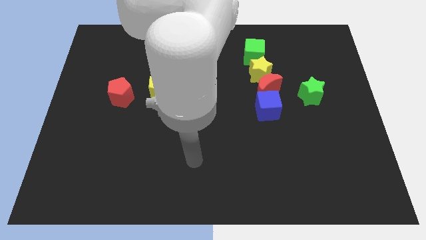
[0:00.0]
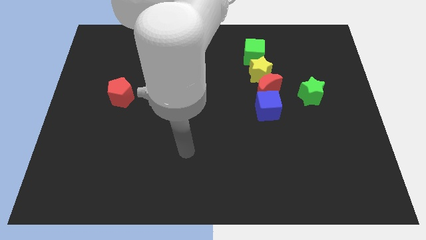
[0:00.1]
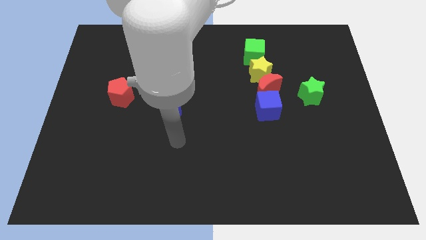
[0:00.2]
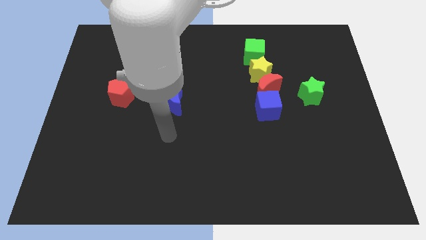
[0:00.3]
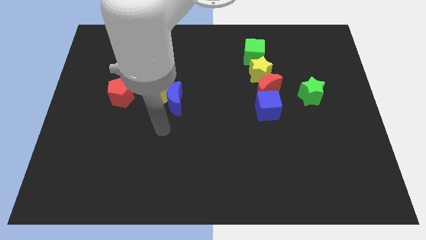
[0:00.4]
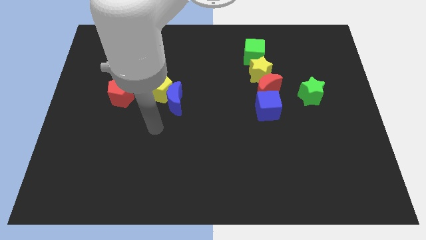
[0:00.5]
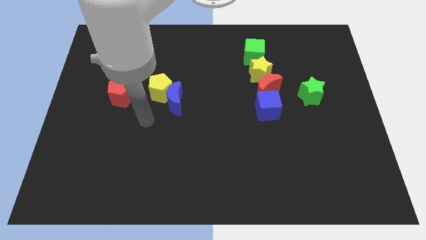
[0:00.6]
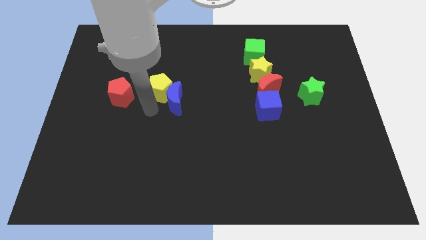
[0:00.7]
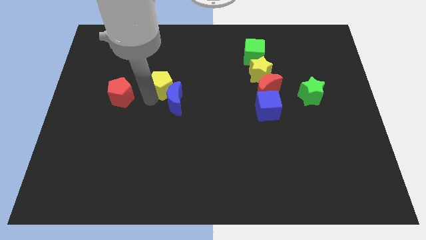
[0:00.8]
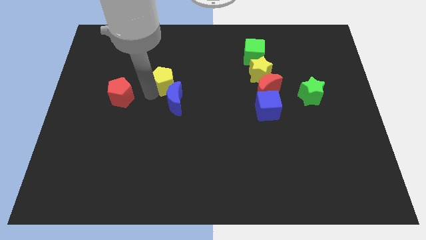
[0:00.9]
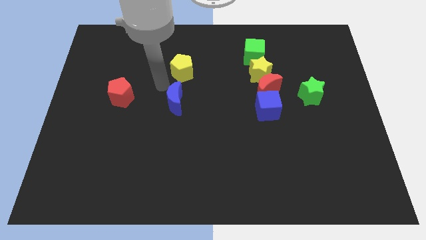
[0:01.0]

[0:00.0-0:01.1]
move the blue moon away from the yellow pentagon

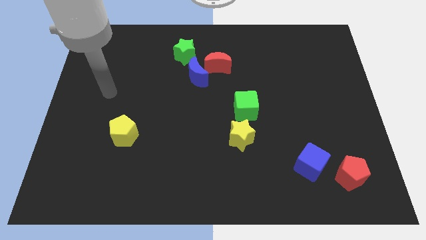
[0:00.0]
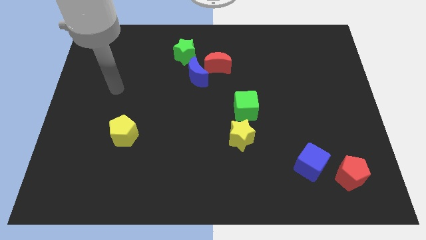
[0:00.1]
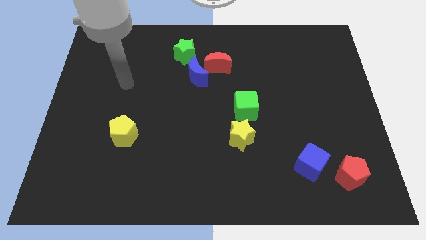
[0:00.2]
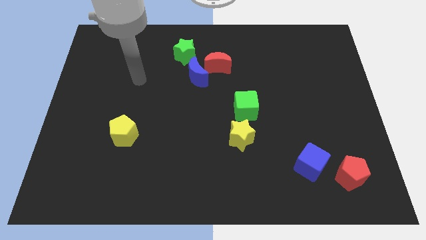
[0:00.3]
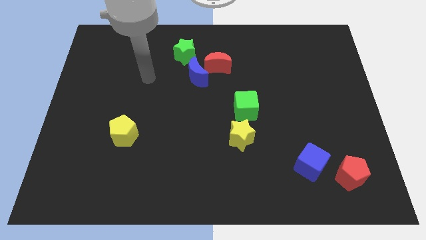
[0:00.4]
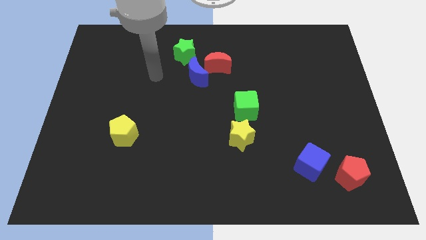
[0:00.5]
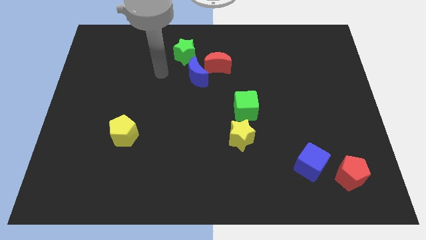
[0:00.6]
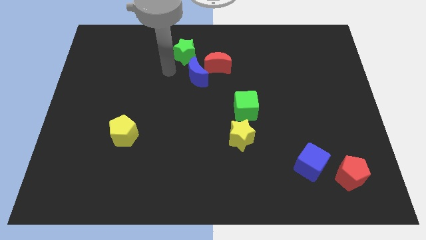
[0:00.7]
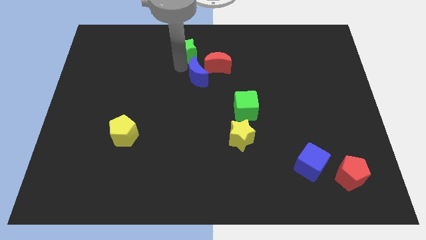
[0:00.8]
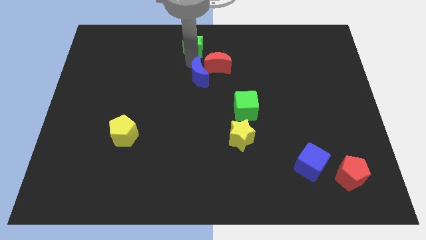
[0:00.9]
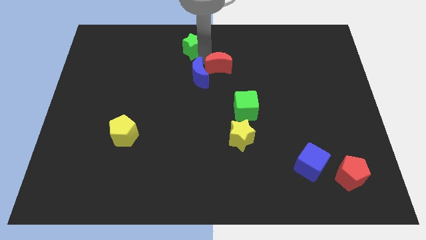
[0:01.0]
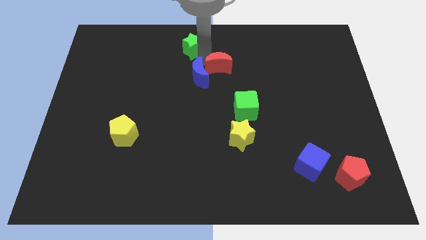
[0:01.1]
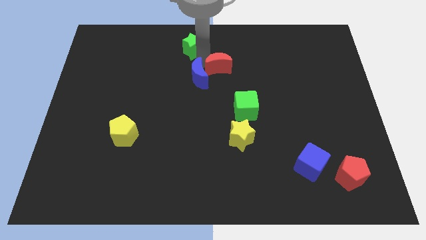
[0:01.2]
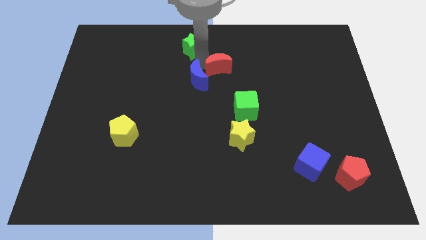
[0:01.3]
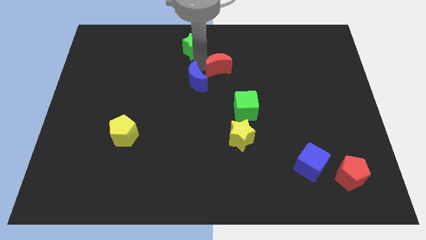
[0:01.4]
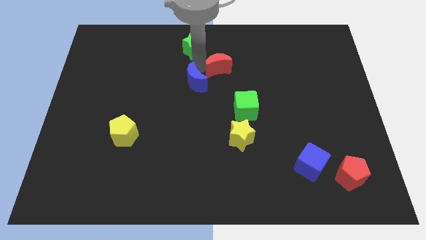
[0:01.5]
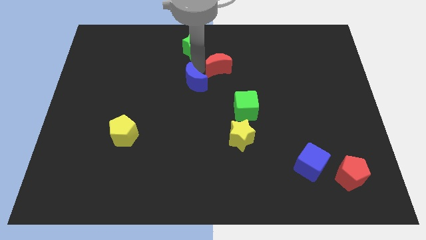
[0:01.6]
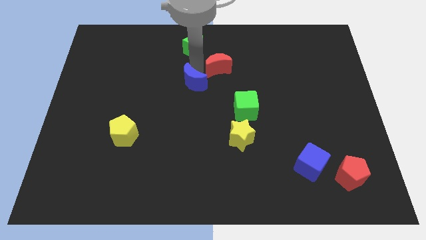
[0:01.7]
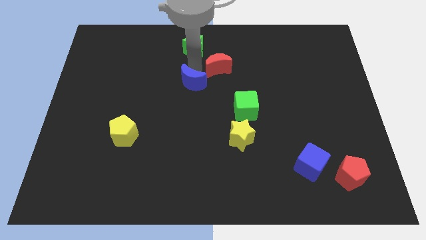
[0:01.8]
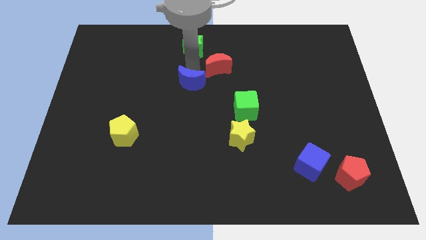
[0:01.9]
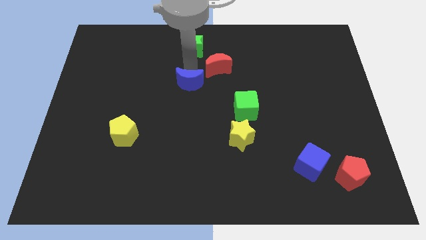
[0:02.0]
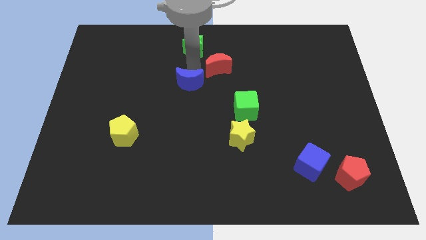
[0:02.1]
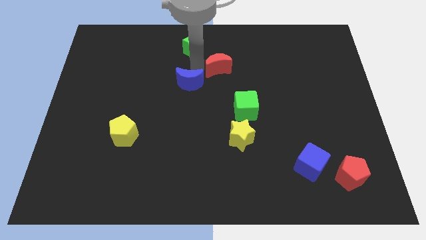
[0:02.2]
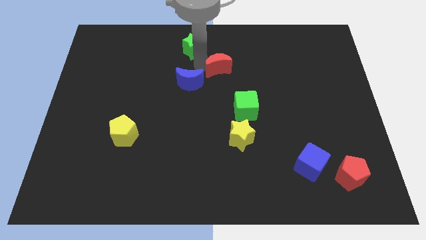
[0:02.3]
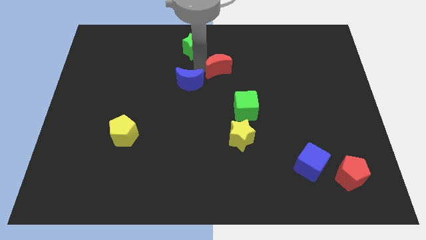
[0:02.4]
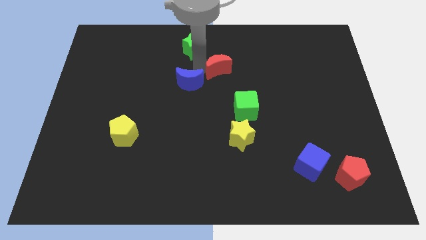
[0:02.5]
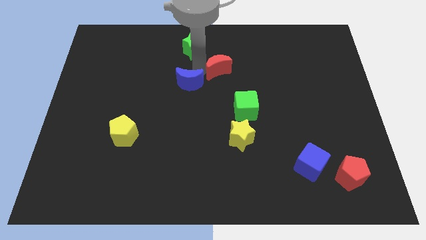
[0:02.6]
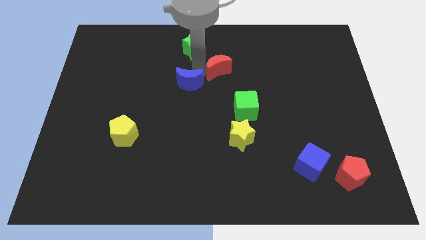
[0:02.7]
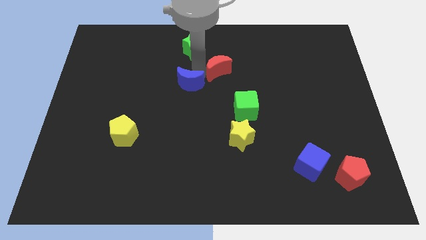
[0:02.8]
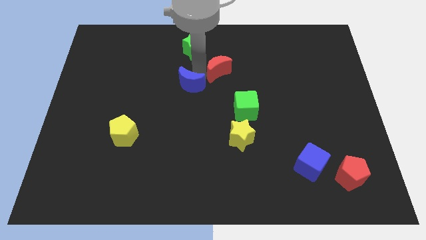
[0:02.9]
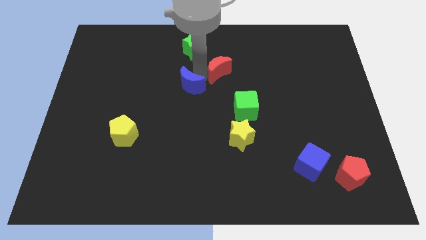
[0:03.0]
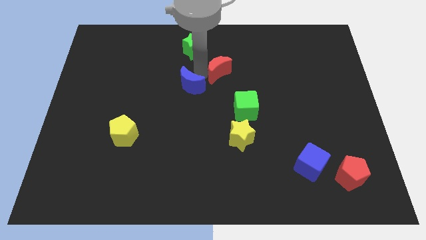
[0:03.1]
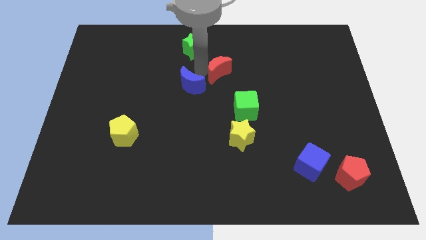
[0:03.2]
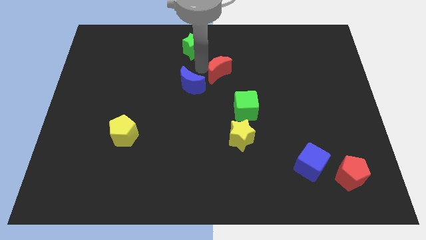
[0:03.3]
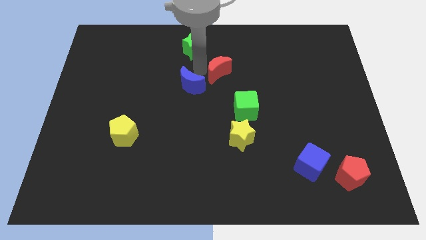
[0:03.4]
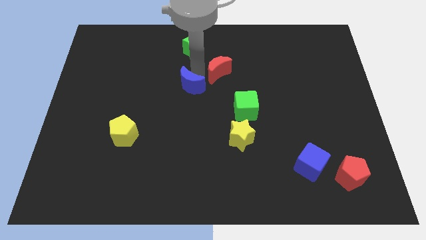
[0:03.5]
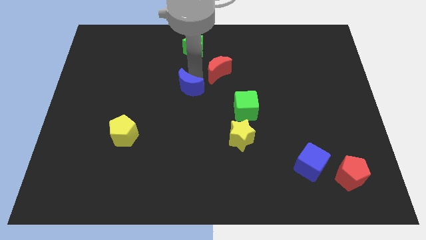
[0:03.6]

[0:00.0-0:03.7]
move the blue moon away from the red moon and green star

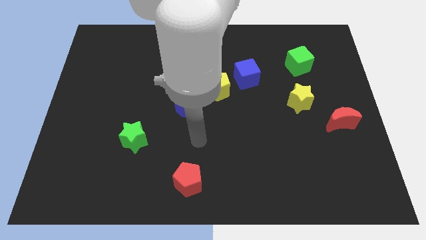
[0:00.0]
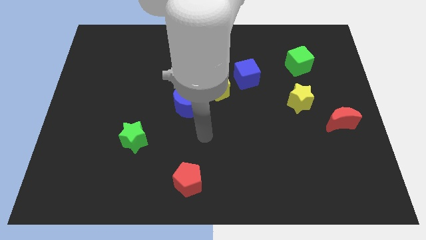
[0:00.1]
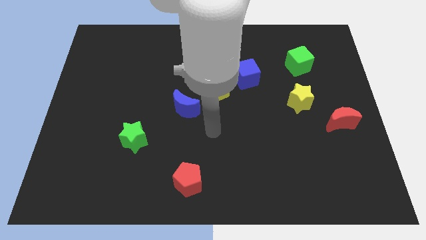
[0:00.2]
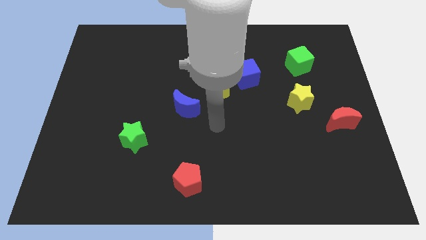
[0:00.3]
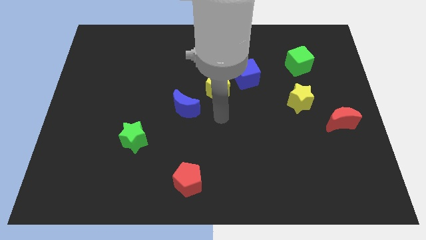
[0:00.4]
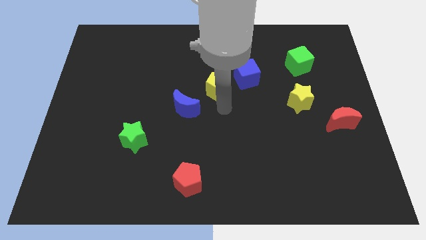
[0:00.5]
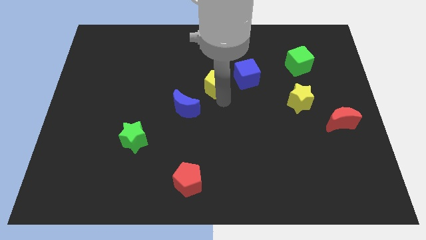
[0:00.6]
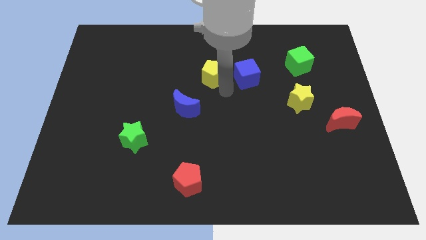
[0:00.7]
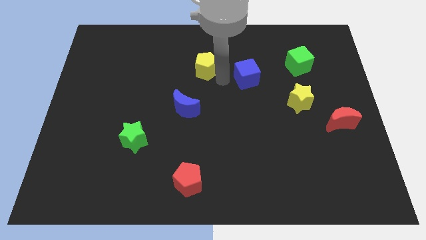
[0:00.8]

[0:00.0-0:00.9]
pull the blue cube apart from the yellow pentagon

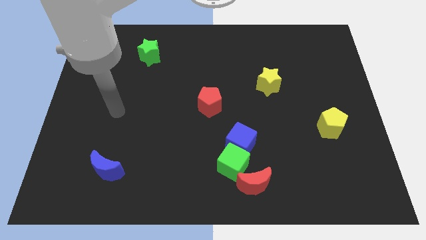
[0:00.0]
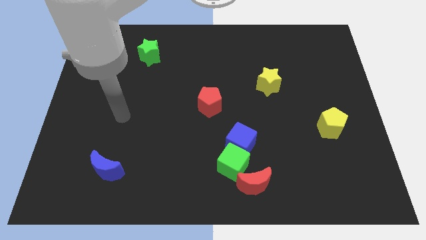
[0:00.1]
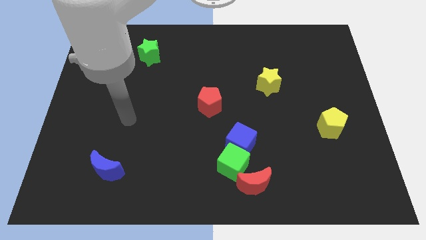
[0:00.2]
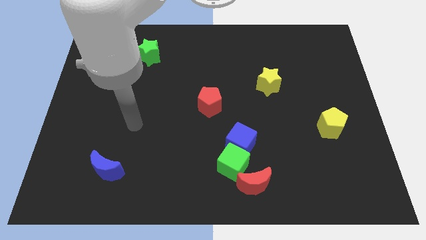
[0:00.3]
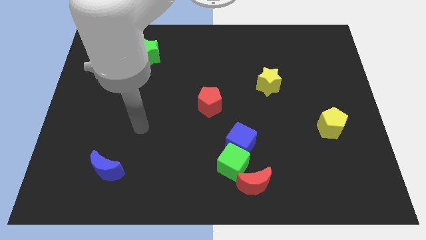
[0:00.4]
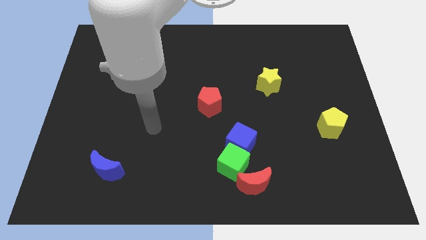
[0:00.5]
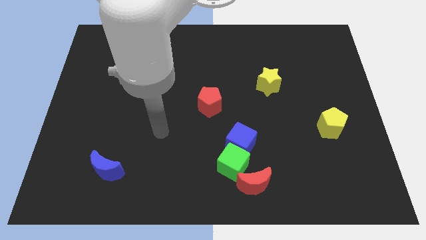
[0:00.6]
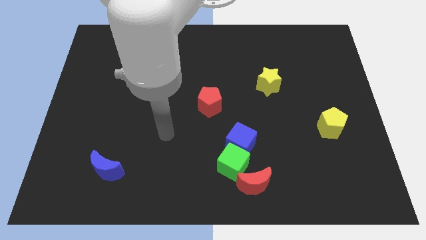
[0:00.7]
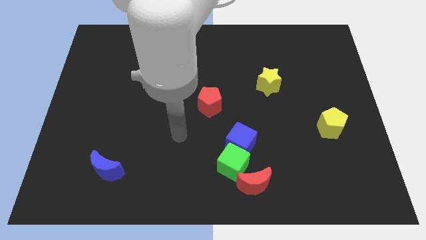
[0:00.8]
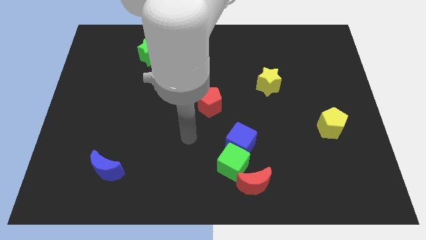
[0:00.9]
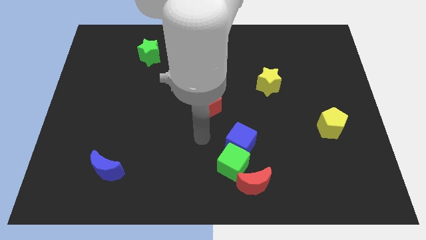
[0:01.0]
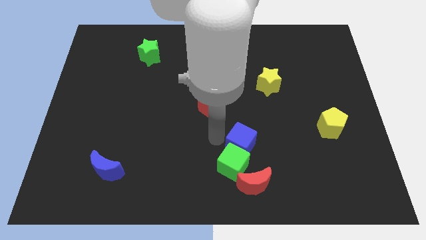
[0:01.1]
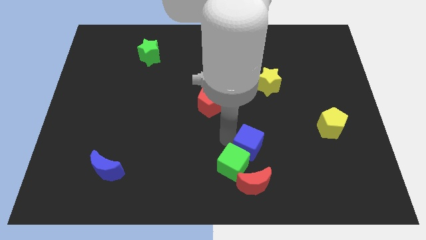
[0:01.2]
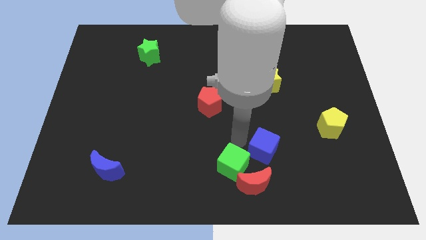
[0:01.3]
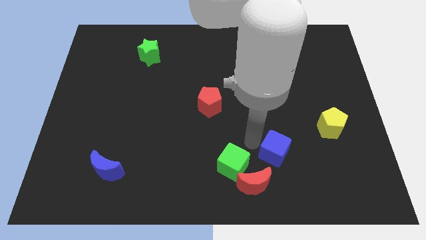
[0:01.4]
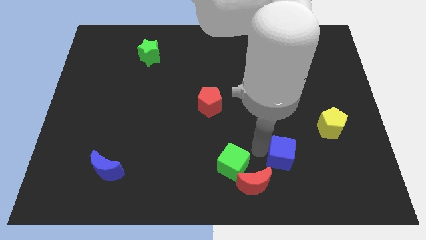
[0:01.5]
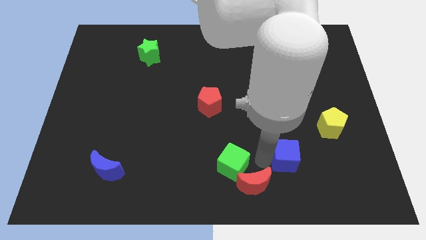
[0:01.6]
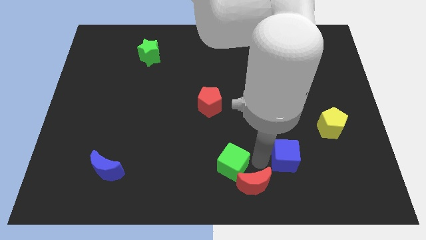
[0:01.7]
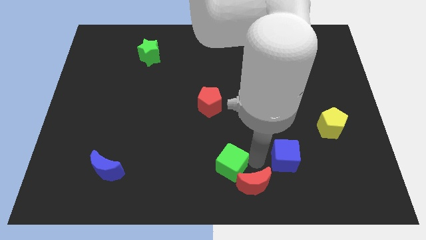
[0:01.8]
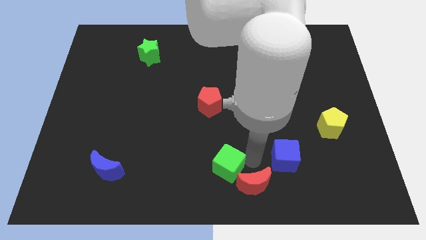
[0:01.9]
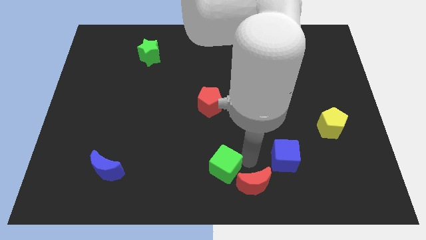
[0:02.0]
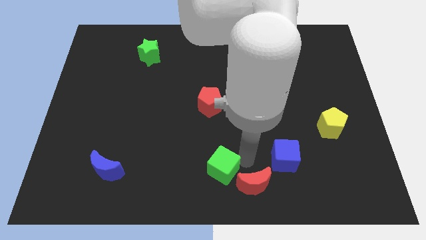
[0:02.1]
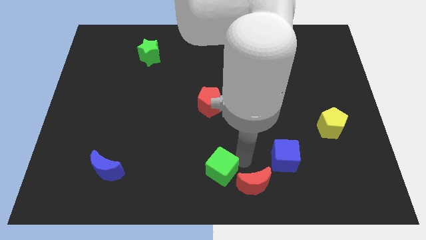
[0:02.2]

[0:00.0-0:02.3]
pull the green cube apart from the blue cube and red moon

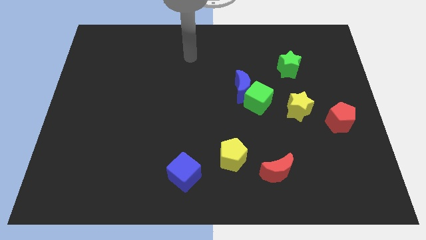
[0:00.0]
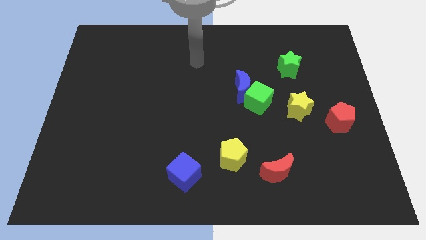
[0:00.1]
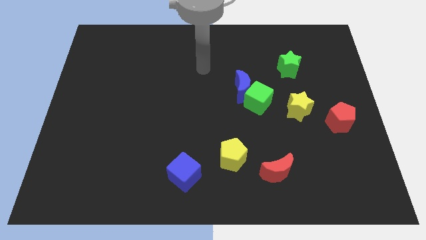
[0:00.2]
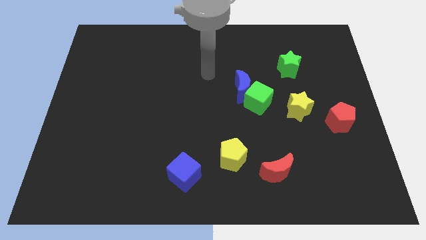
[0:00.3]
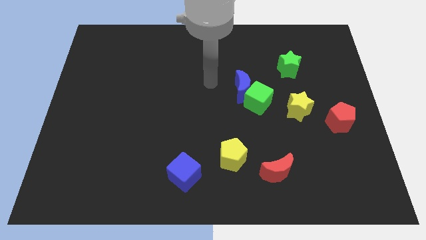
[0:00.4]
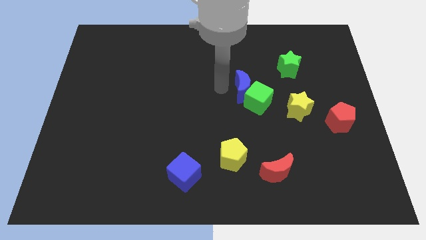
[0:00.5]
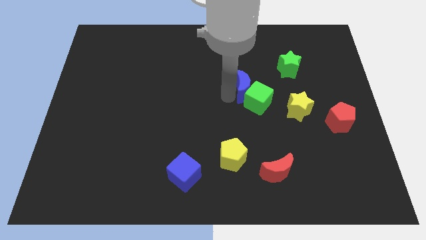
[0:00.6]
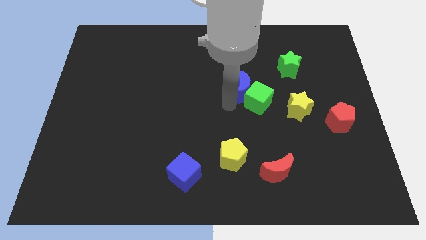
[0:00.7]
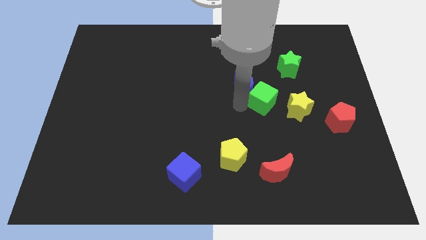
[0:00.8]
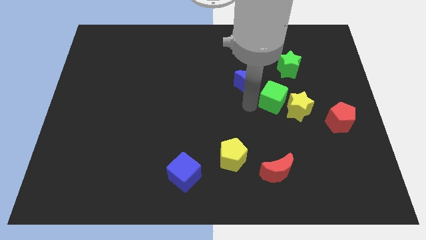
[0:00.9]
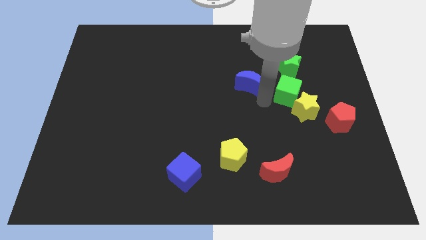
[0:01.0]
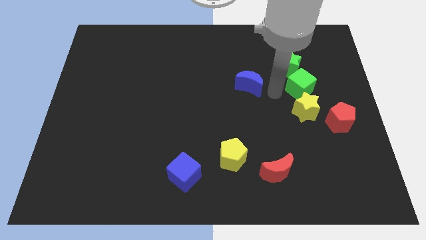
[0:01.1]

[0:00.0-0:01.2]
pull the blue moon apart from the green cube

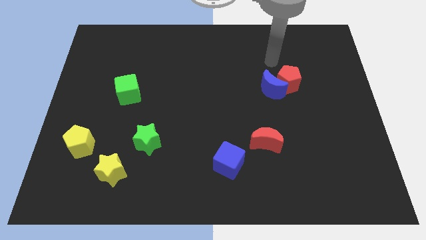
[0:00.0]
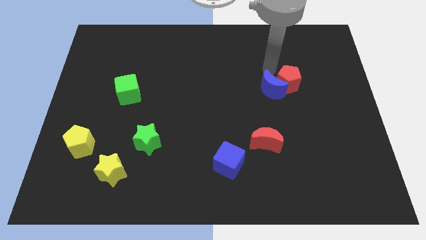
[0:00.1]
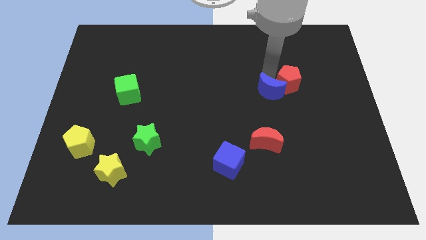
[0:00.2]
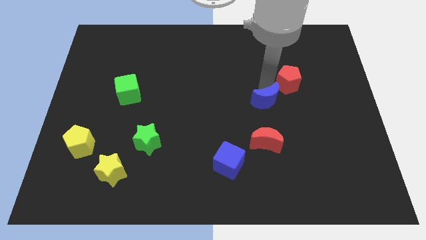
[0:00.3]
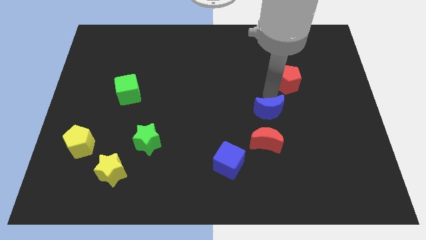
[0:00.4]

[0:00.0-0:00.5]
separate the red pentagon from the blue moon
